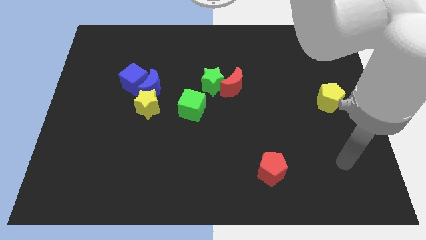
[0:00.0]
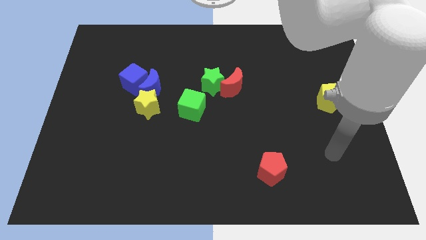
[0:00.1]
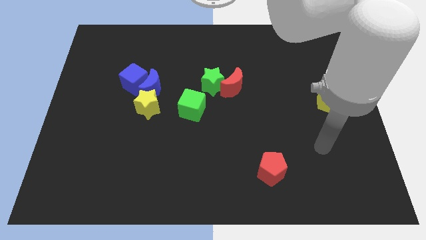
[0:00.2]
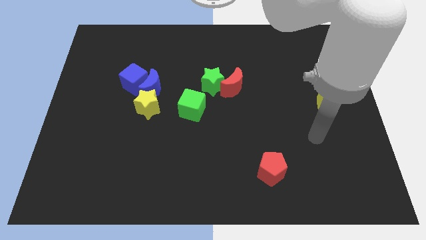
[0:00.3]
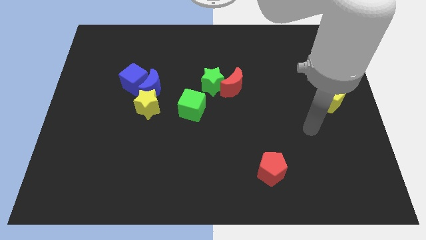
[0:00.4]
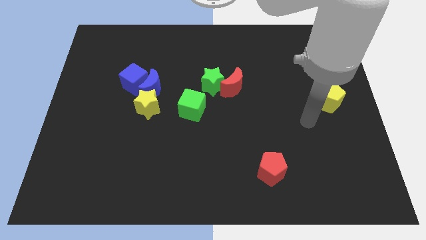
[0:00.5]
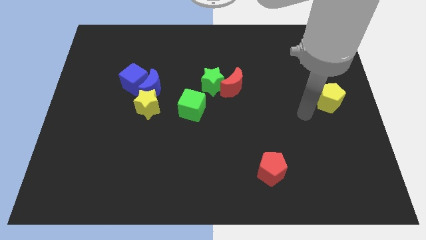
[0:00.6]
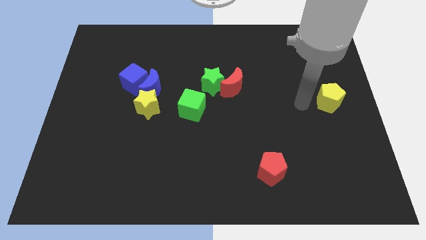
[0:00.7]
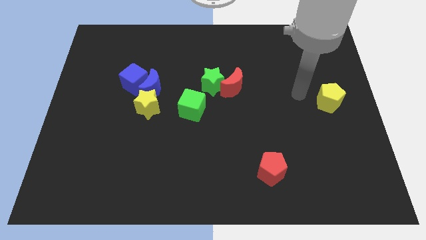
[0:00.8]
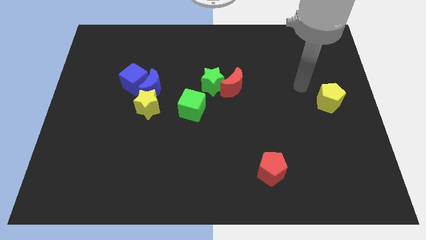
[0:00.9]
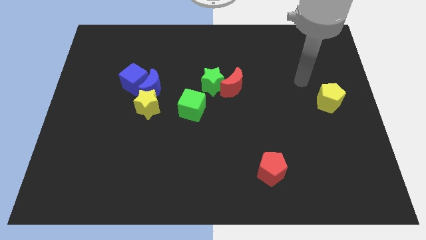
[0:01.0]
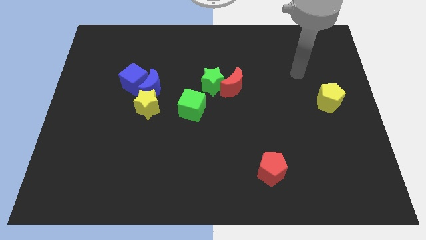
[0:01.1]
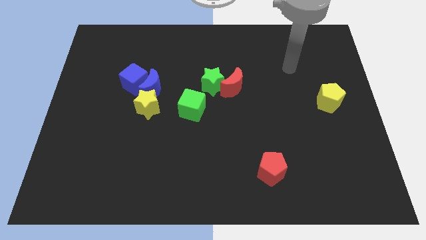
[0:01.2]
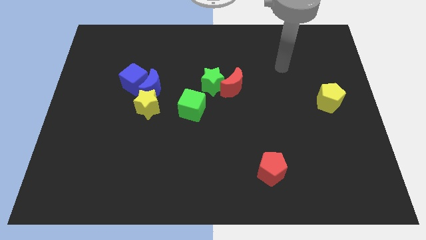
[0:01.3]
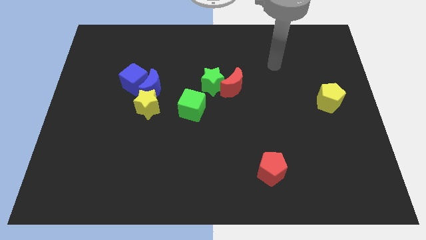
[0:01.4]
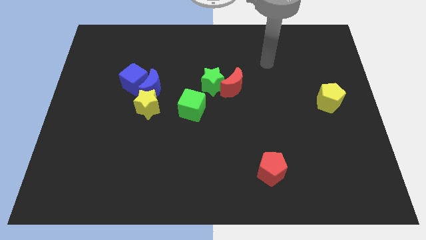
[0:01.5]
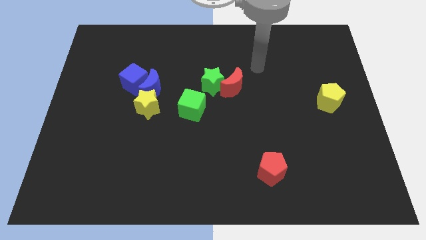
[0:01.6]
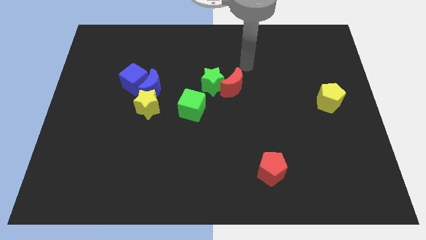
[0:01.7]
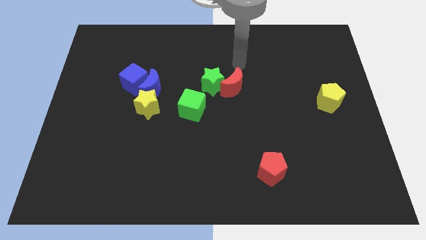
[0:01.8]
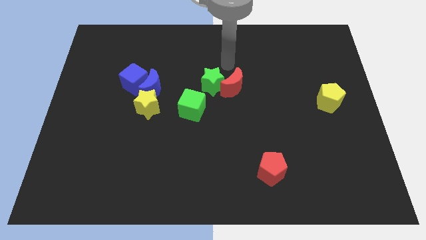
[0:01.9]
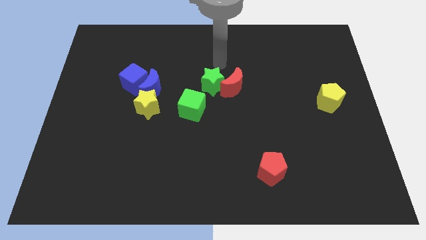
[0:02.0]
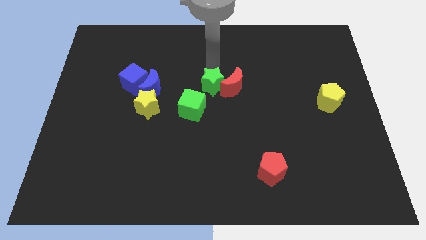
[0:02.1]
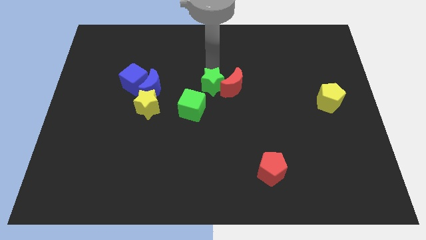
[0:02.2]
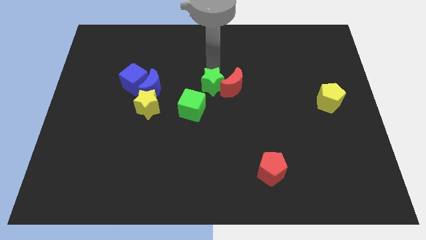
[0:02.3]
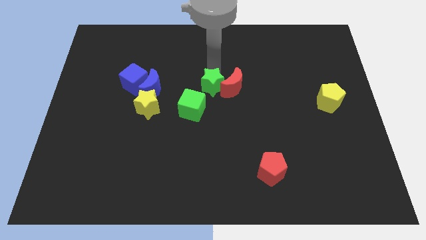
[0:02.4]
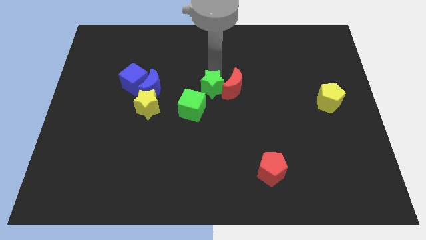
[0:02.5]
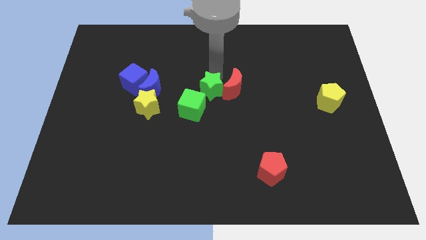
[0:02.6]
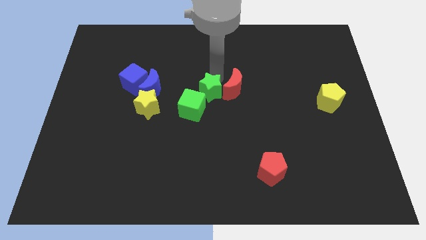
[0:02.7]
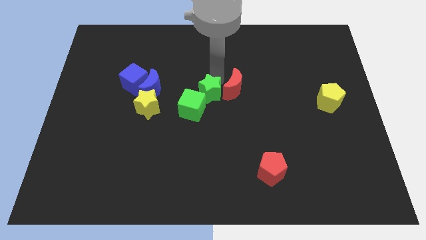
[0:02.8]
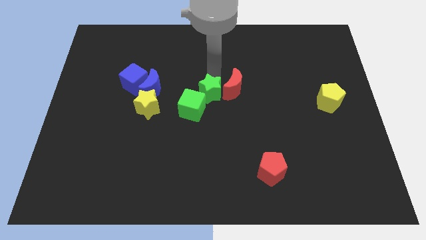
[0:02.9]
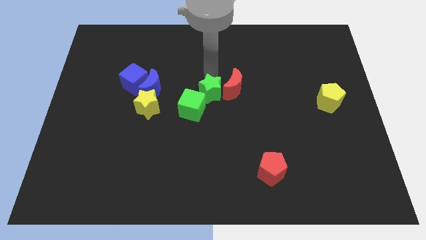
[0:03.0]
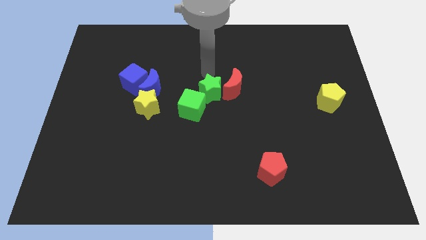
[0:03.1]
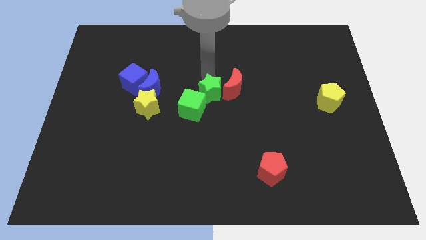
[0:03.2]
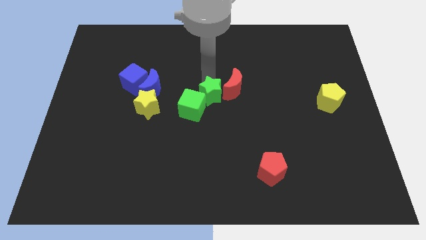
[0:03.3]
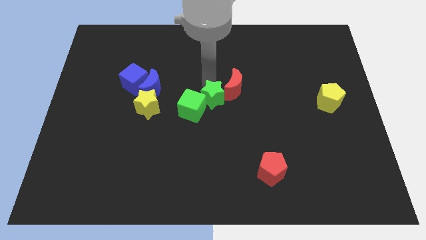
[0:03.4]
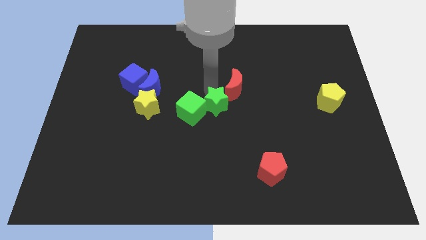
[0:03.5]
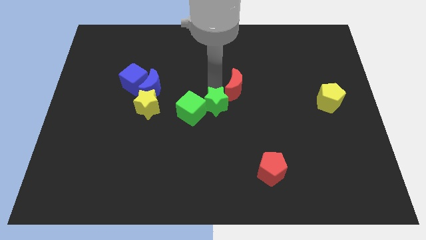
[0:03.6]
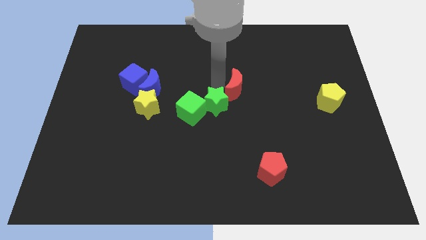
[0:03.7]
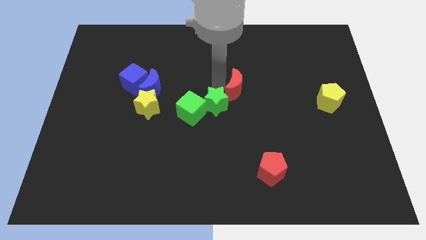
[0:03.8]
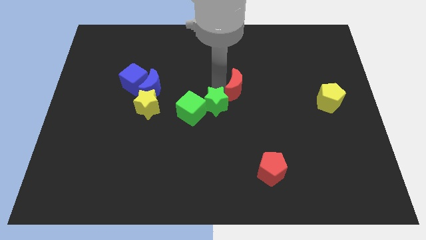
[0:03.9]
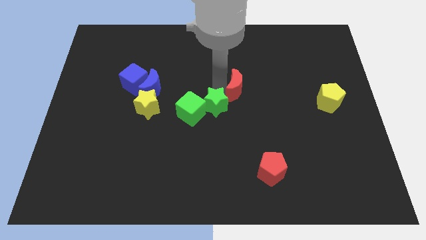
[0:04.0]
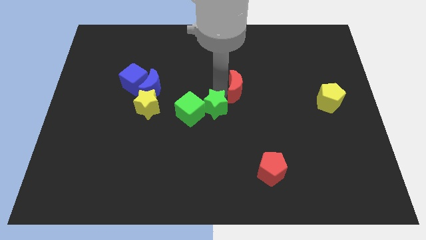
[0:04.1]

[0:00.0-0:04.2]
move the green star a bit downwards

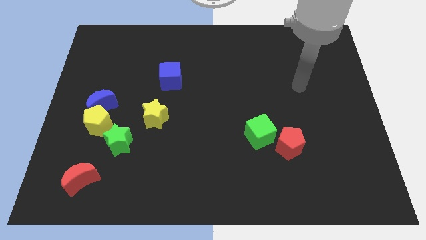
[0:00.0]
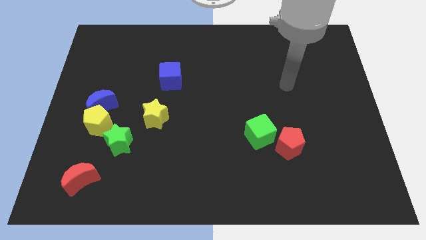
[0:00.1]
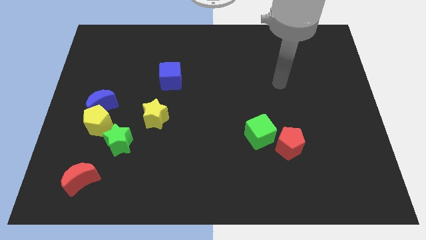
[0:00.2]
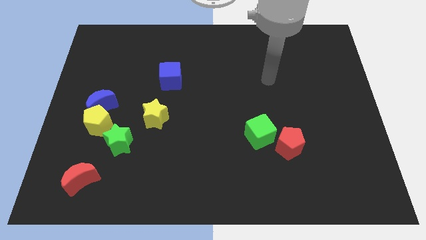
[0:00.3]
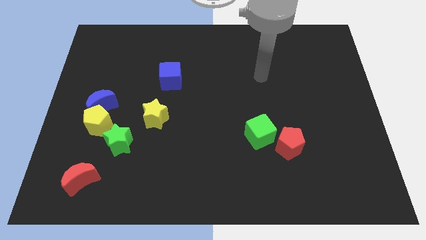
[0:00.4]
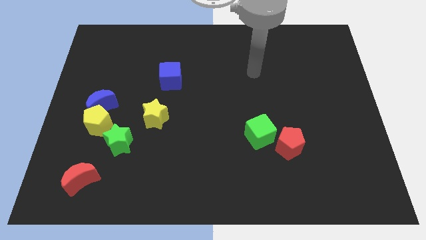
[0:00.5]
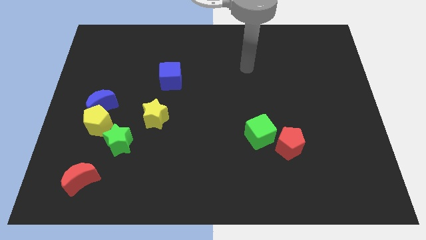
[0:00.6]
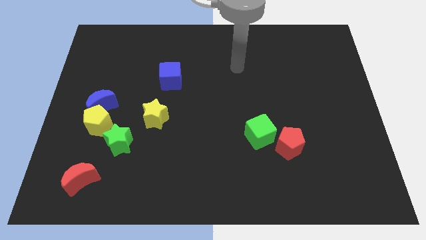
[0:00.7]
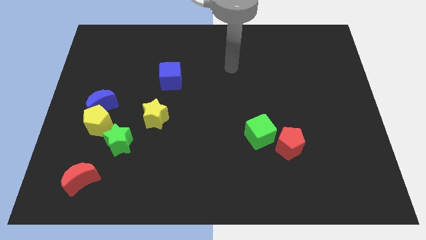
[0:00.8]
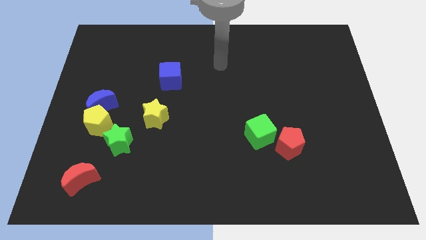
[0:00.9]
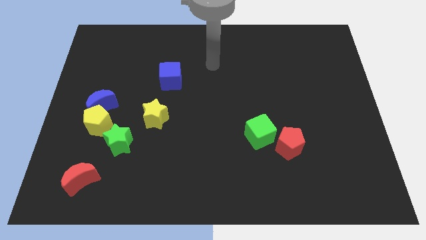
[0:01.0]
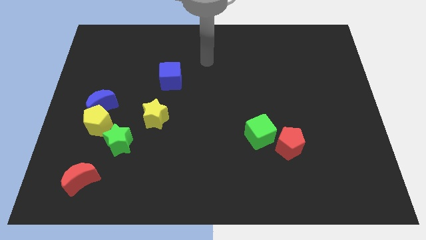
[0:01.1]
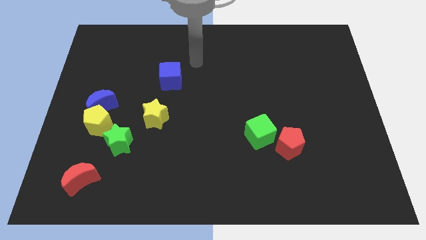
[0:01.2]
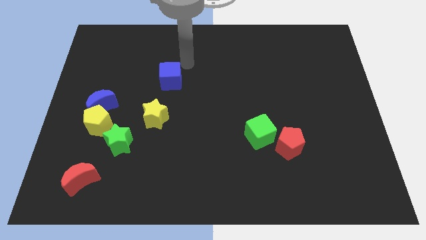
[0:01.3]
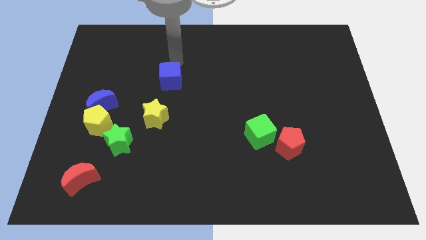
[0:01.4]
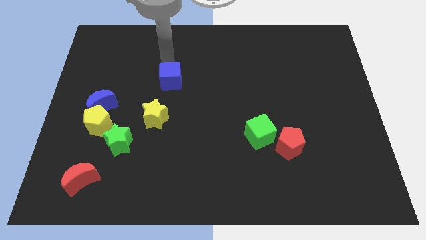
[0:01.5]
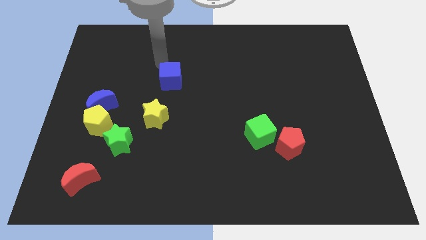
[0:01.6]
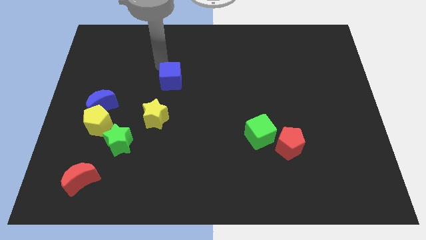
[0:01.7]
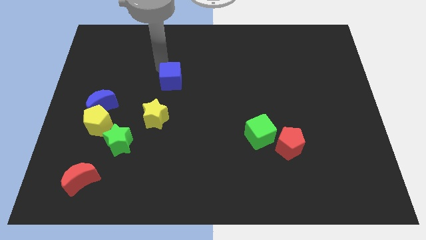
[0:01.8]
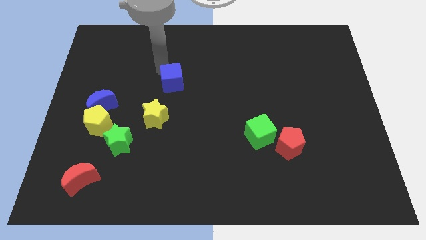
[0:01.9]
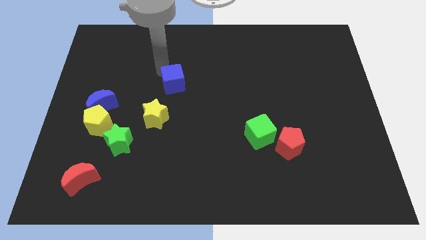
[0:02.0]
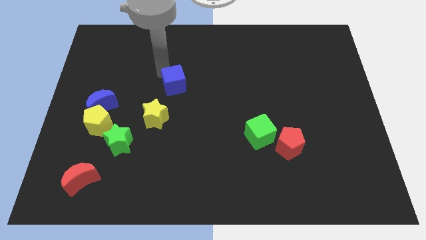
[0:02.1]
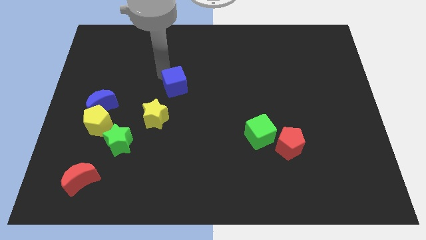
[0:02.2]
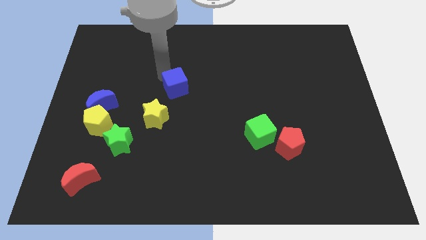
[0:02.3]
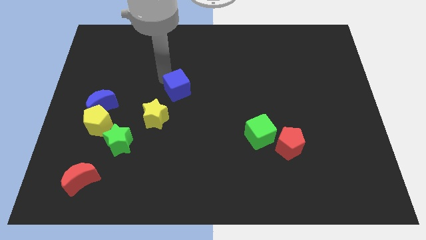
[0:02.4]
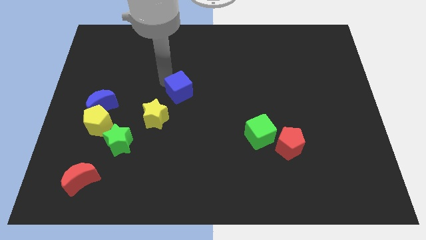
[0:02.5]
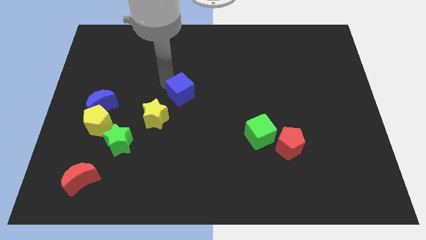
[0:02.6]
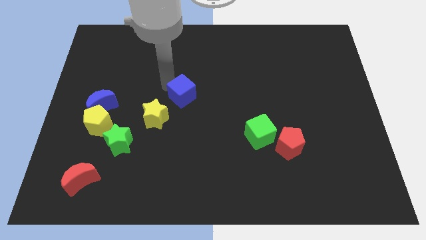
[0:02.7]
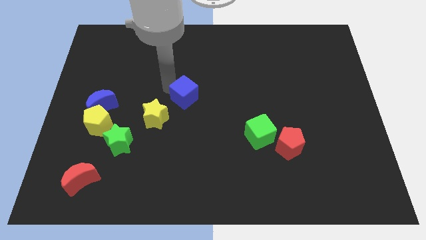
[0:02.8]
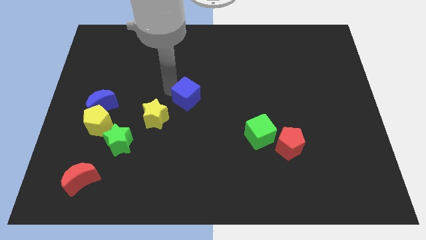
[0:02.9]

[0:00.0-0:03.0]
push the blue cube down and right slightly

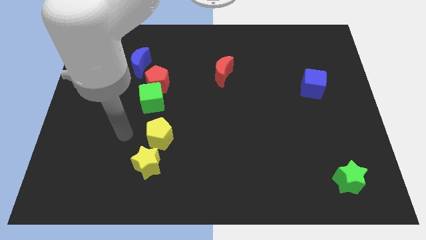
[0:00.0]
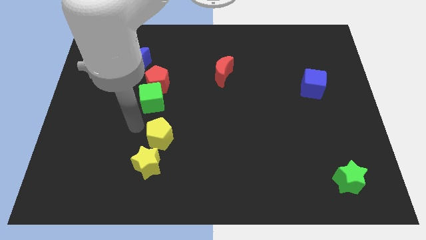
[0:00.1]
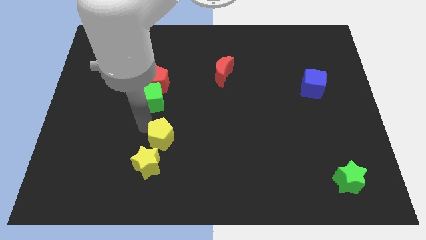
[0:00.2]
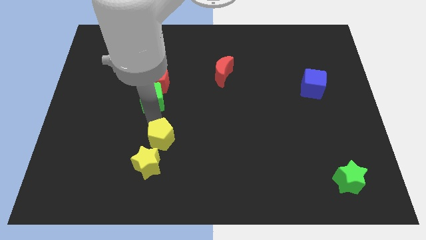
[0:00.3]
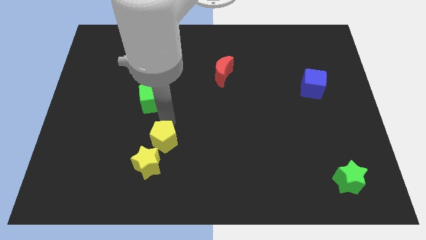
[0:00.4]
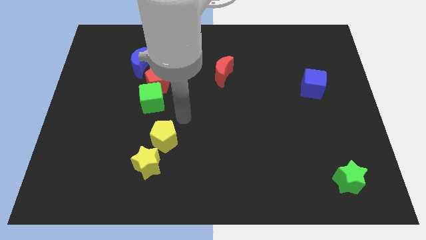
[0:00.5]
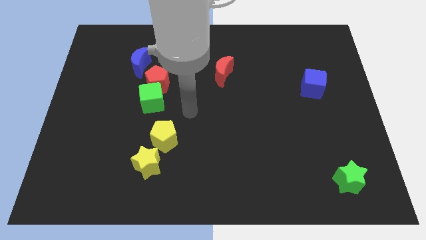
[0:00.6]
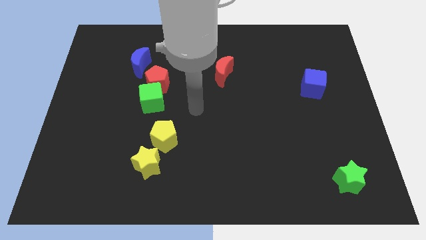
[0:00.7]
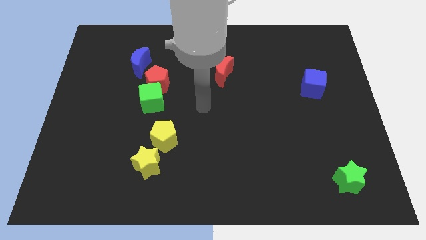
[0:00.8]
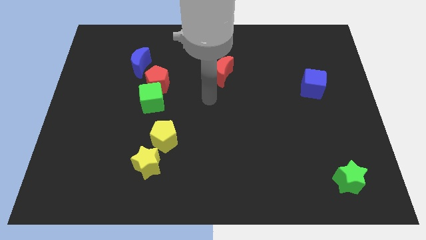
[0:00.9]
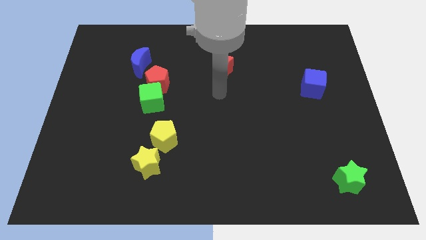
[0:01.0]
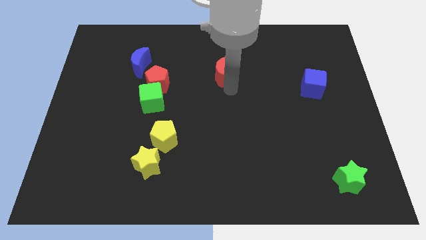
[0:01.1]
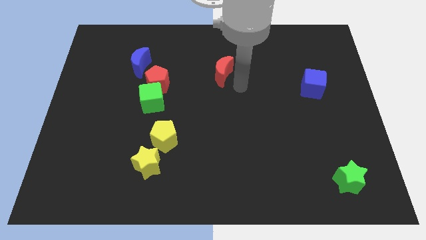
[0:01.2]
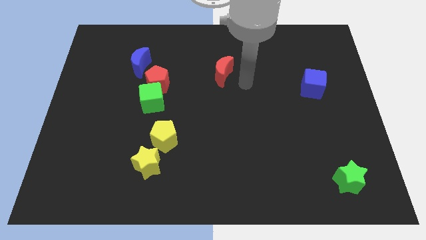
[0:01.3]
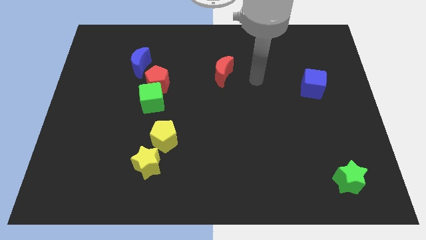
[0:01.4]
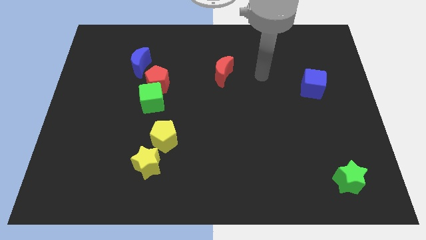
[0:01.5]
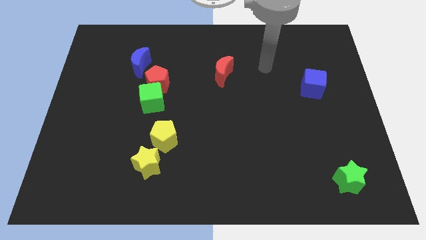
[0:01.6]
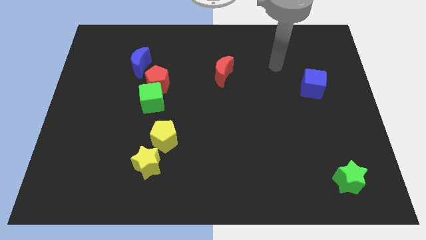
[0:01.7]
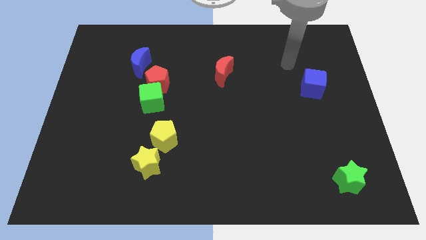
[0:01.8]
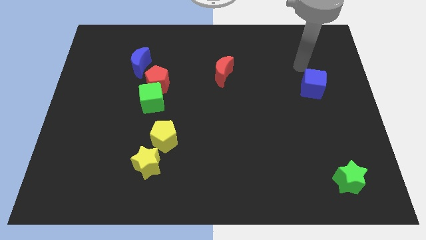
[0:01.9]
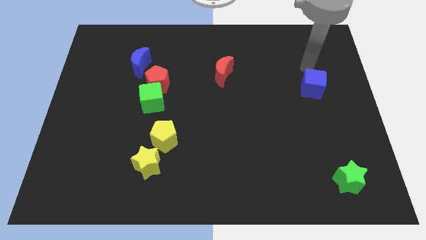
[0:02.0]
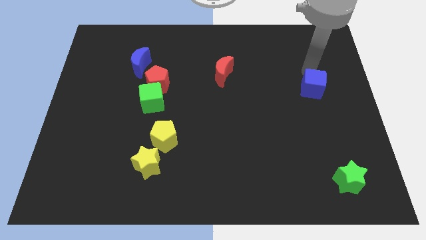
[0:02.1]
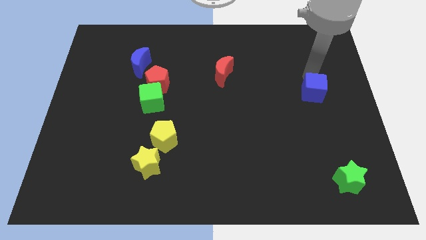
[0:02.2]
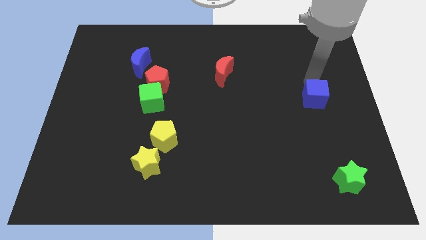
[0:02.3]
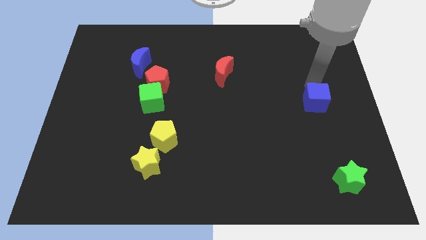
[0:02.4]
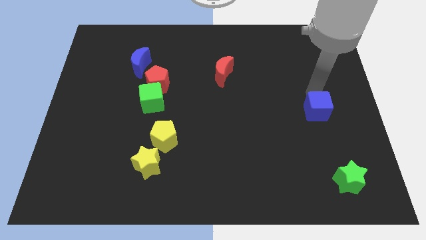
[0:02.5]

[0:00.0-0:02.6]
slightly slide the blue cube down
